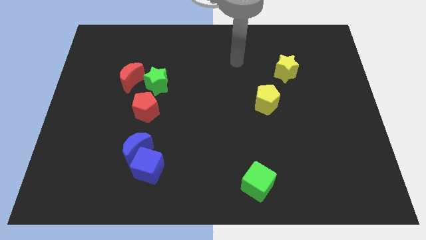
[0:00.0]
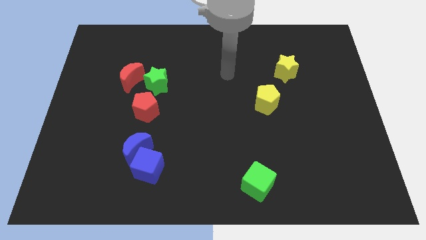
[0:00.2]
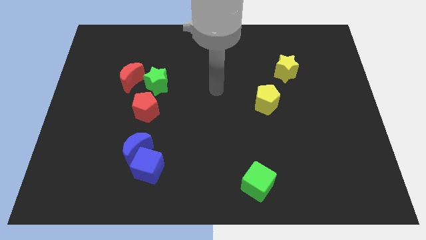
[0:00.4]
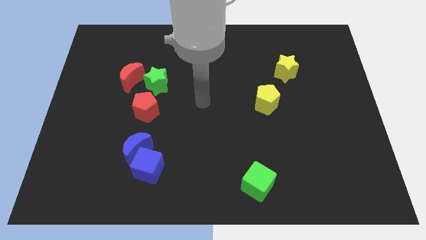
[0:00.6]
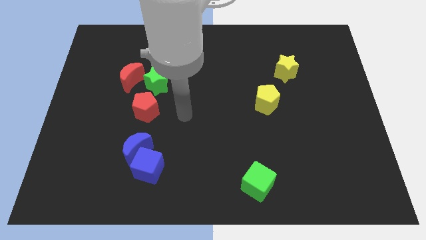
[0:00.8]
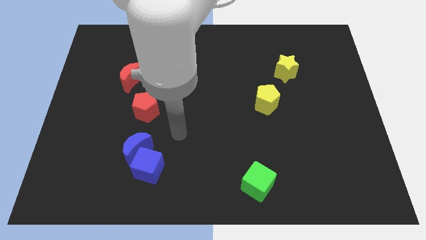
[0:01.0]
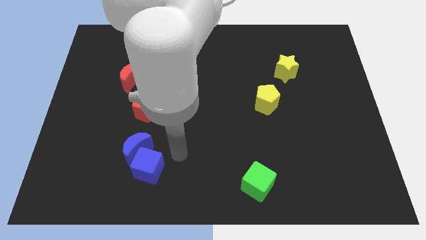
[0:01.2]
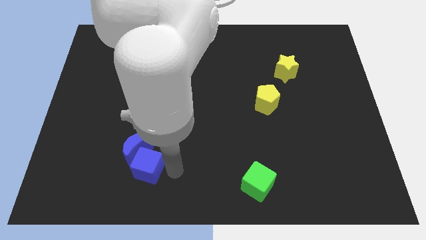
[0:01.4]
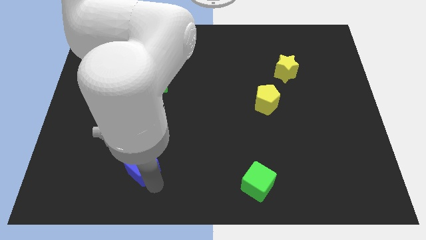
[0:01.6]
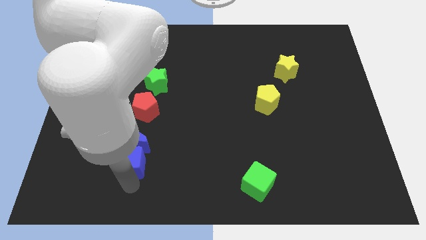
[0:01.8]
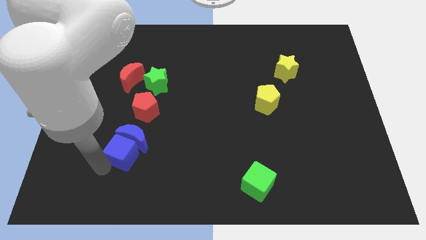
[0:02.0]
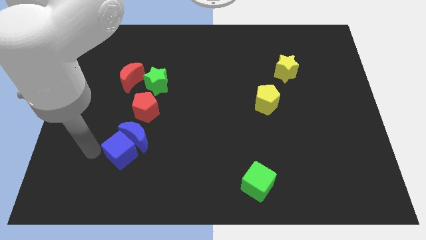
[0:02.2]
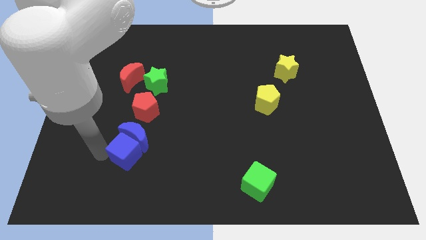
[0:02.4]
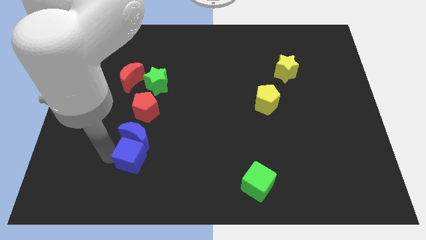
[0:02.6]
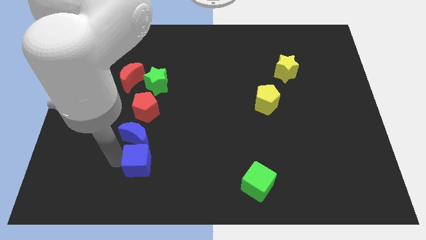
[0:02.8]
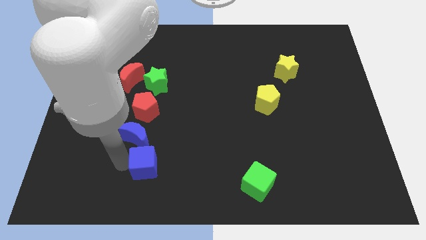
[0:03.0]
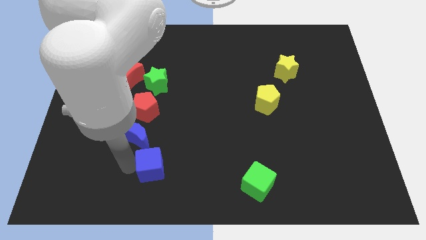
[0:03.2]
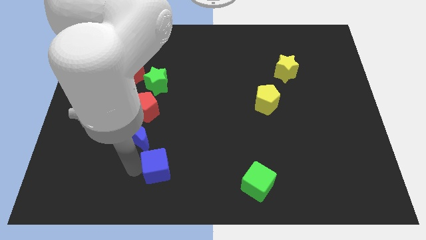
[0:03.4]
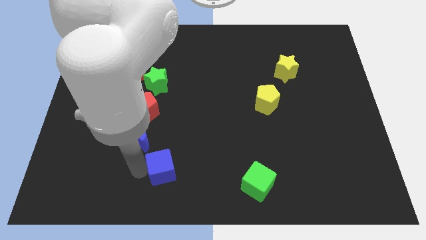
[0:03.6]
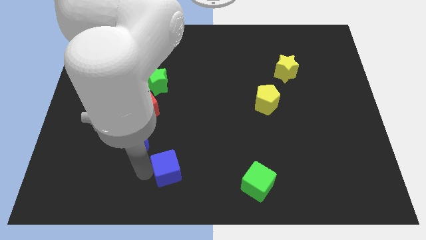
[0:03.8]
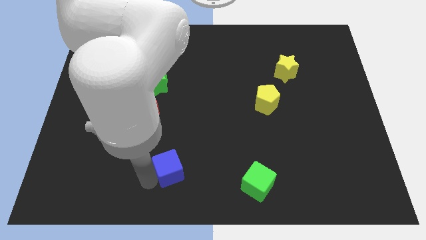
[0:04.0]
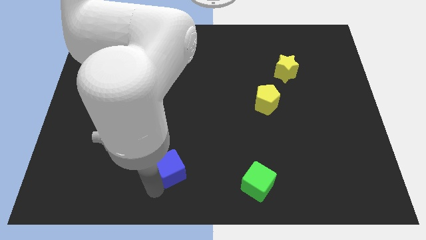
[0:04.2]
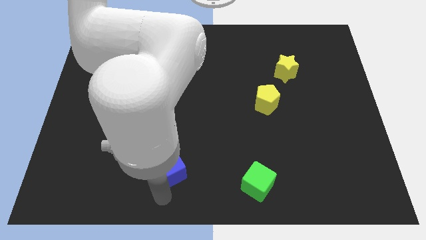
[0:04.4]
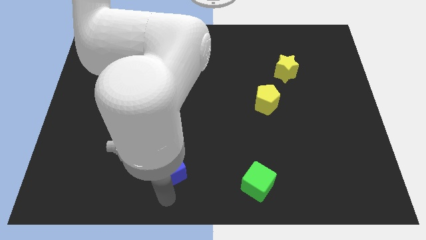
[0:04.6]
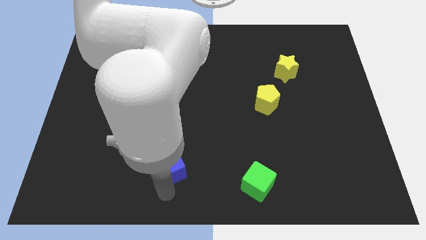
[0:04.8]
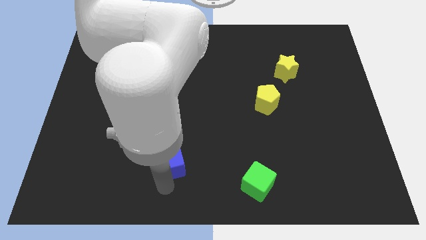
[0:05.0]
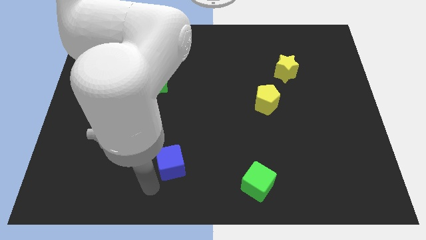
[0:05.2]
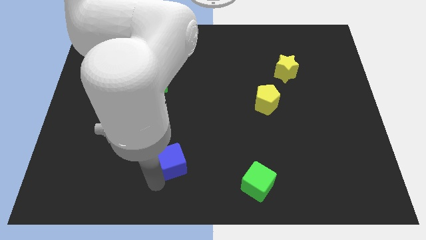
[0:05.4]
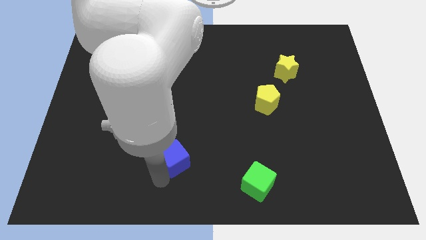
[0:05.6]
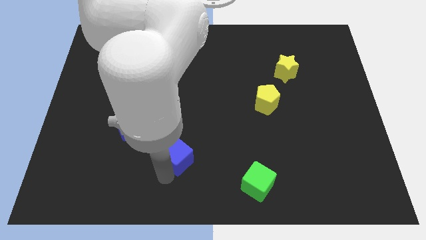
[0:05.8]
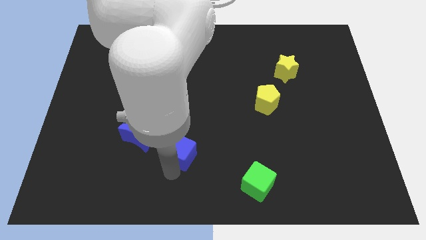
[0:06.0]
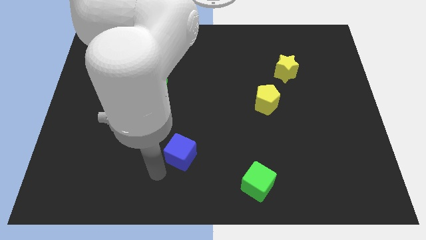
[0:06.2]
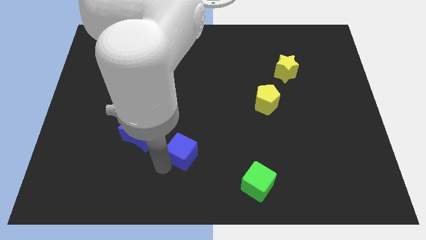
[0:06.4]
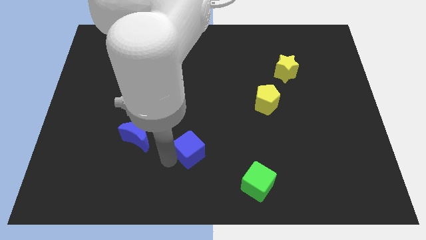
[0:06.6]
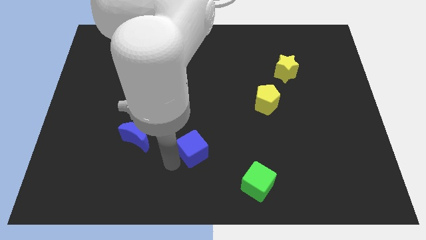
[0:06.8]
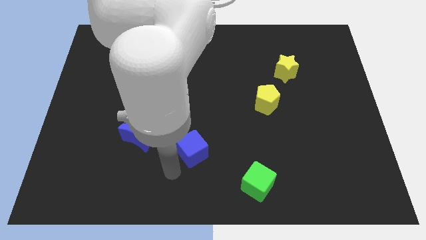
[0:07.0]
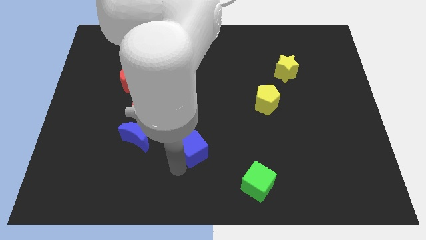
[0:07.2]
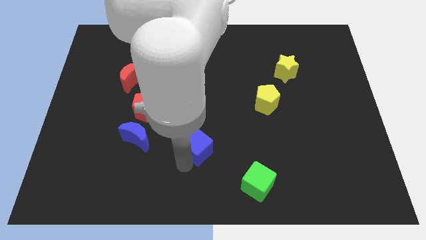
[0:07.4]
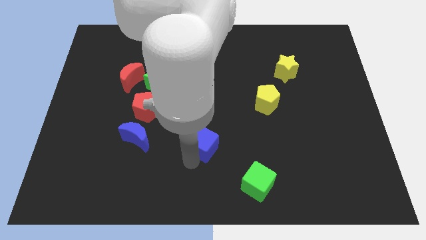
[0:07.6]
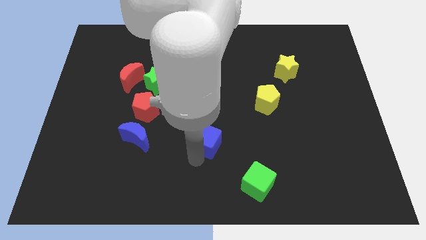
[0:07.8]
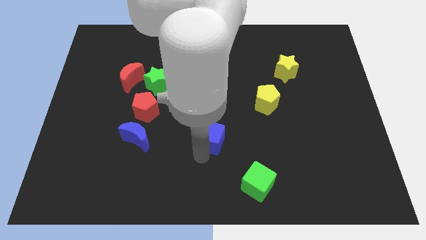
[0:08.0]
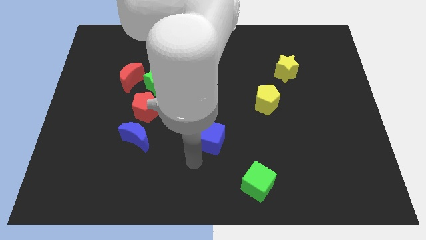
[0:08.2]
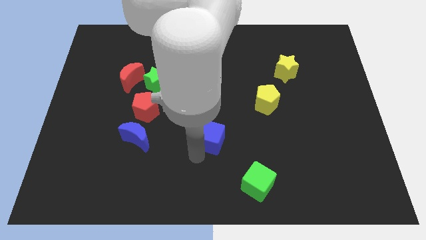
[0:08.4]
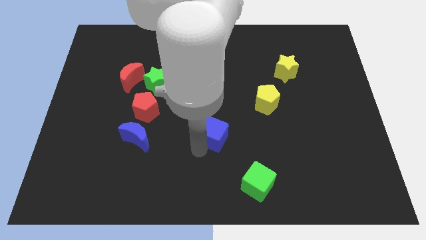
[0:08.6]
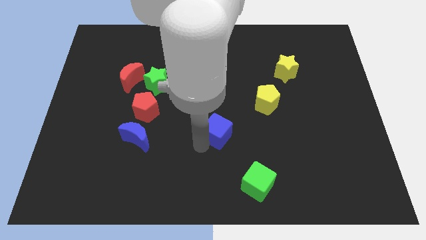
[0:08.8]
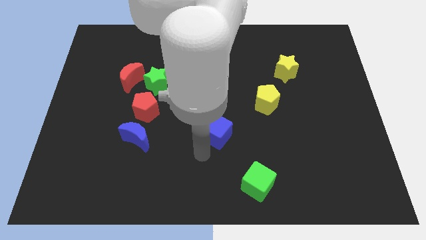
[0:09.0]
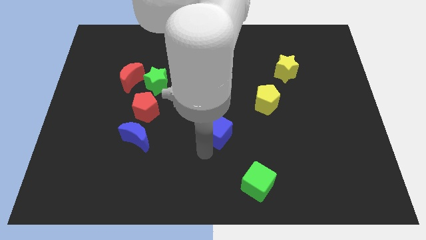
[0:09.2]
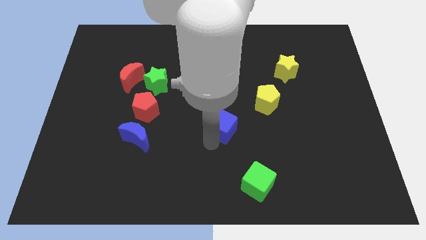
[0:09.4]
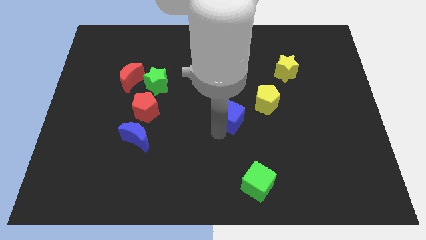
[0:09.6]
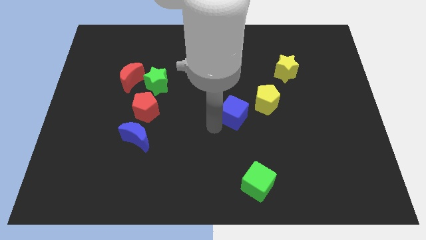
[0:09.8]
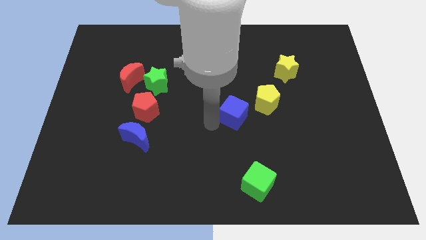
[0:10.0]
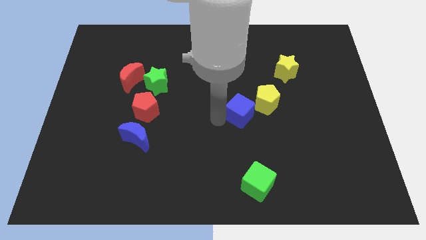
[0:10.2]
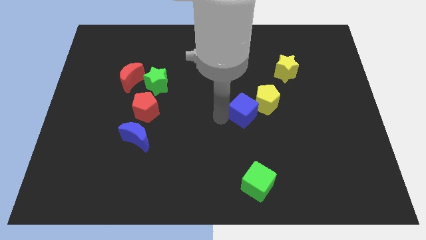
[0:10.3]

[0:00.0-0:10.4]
put the blue cube close to the yellow pentagon

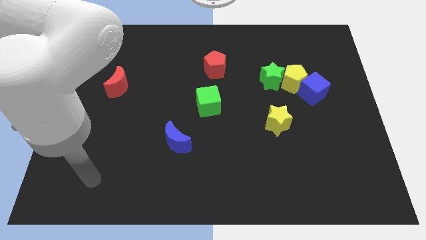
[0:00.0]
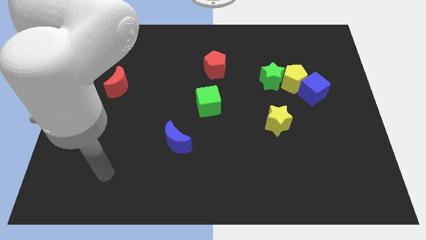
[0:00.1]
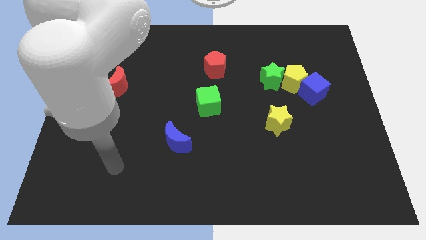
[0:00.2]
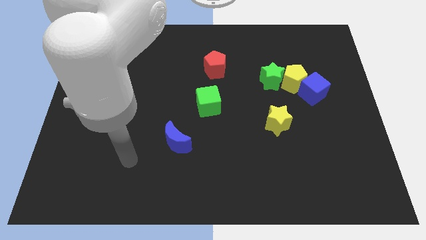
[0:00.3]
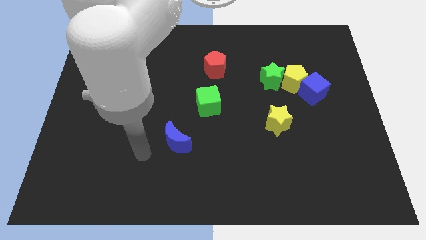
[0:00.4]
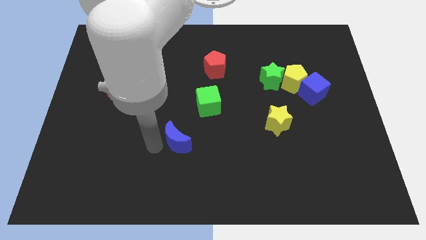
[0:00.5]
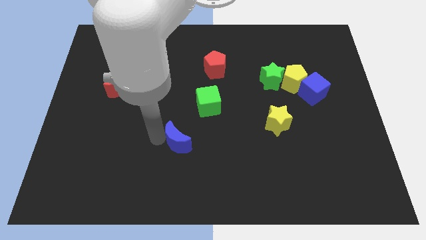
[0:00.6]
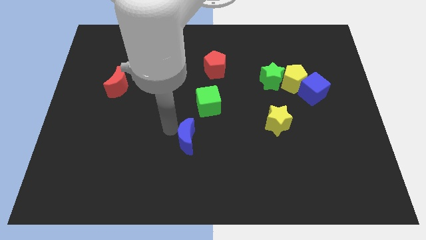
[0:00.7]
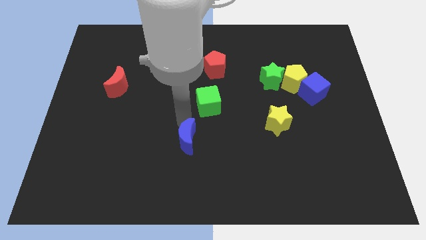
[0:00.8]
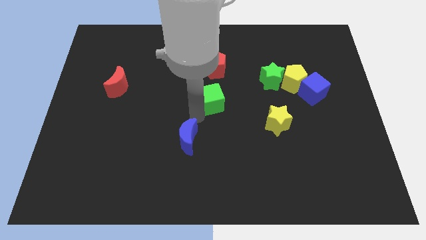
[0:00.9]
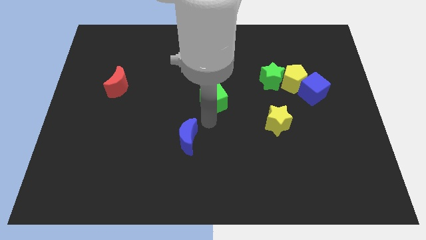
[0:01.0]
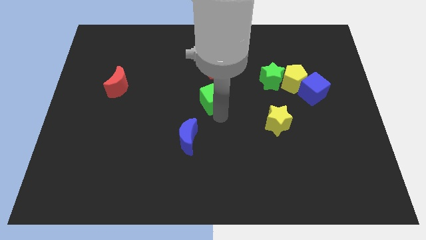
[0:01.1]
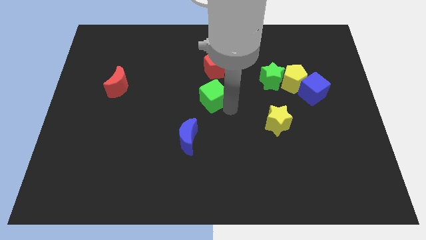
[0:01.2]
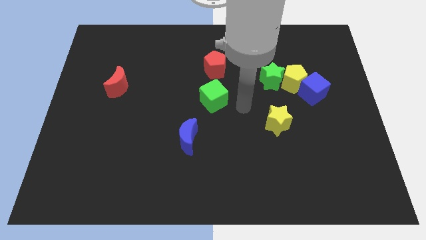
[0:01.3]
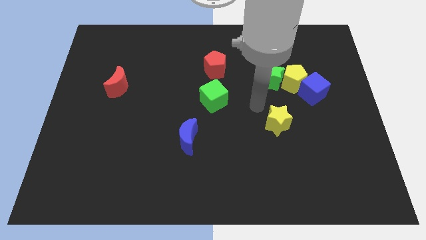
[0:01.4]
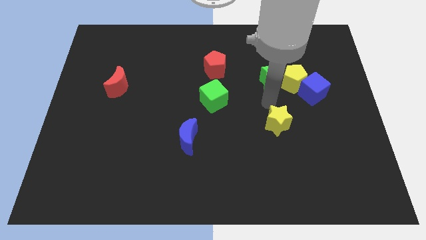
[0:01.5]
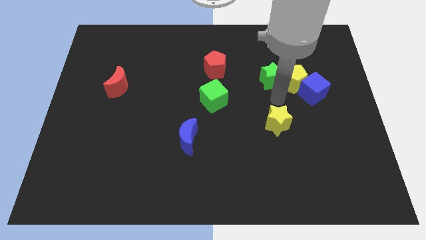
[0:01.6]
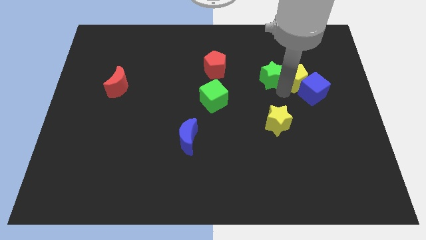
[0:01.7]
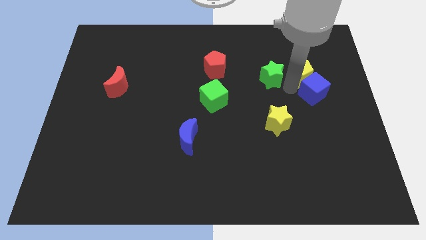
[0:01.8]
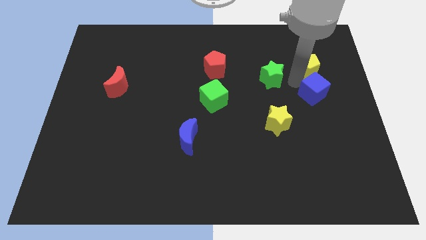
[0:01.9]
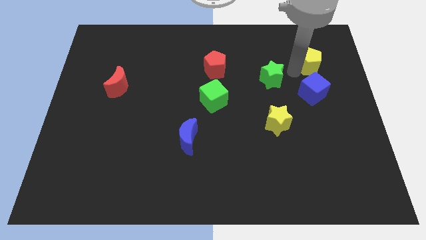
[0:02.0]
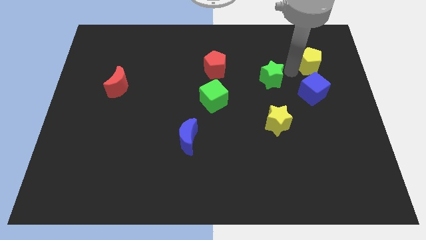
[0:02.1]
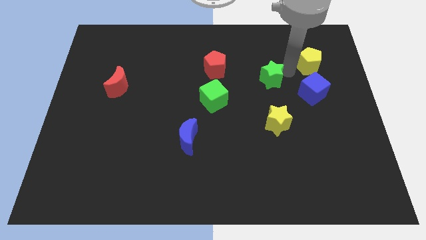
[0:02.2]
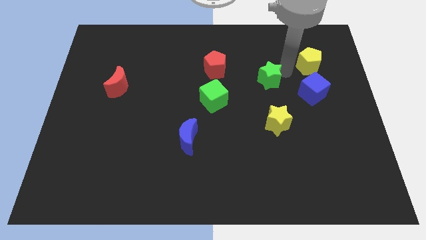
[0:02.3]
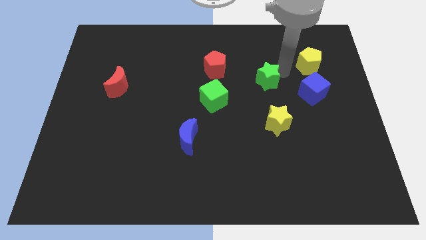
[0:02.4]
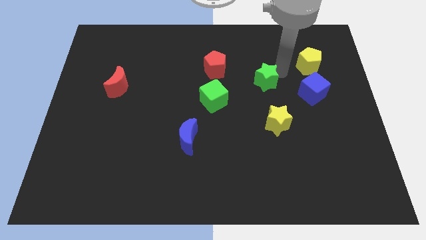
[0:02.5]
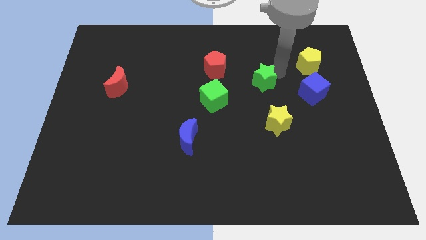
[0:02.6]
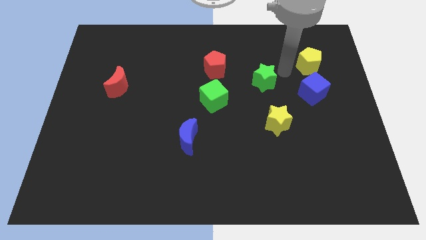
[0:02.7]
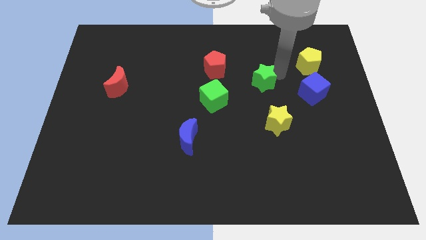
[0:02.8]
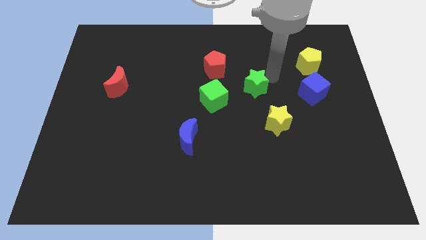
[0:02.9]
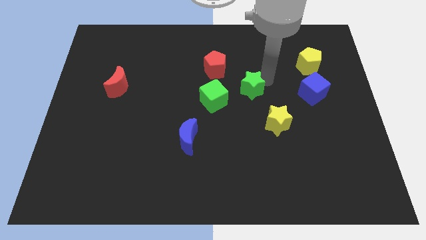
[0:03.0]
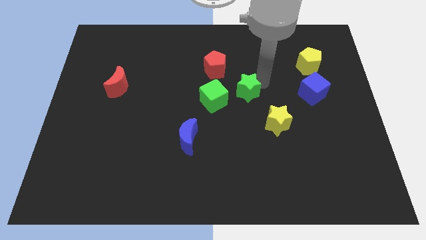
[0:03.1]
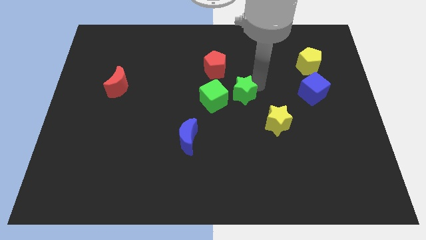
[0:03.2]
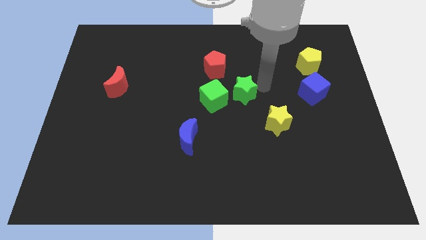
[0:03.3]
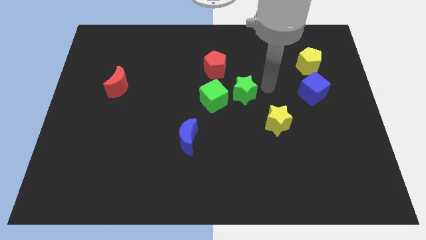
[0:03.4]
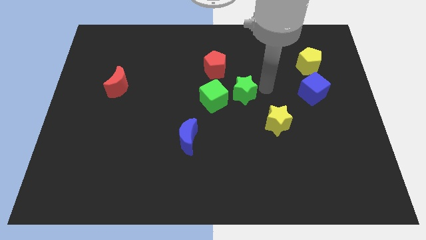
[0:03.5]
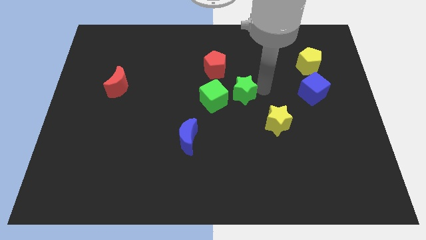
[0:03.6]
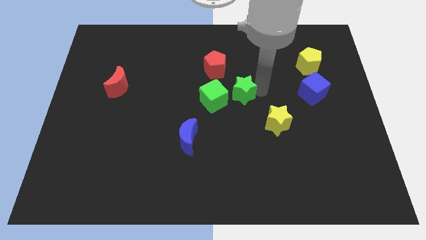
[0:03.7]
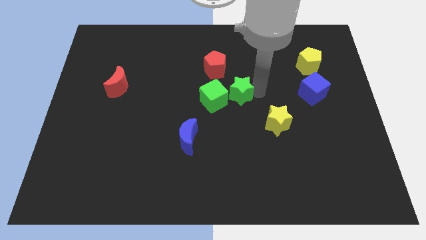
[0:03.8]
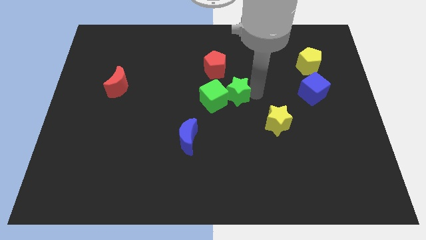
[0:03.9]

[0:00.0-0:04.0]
put the green star to the green cube
